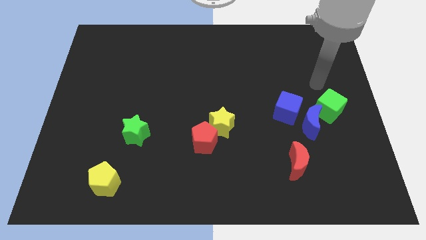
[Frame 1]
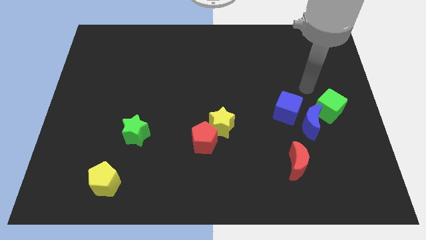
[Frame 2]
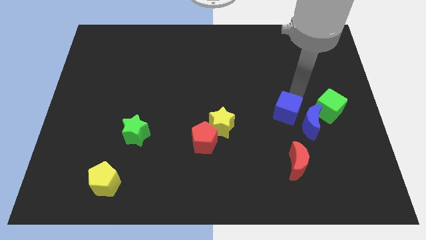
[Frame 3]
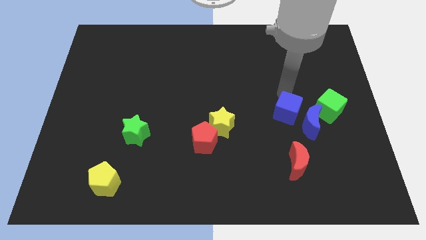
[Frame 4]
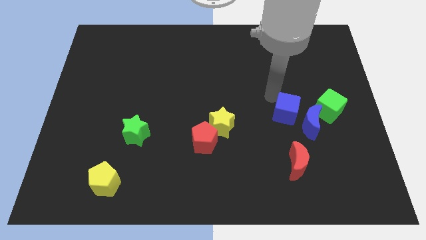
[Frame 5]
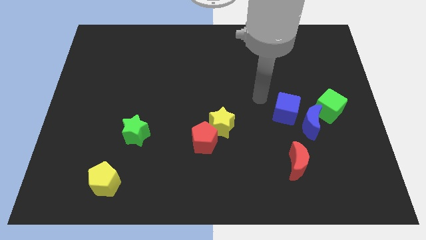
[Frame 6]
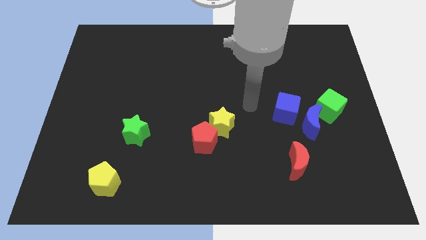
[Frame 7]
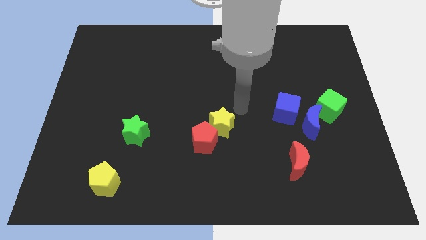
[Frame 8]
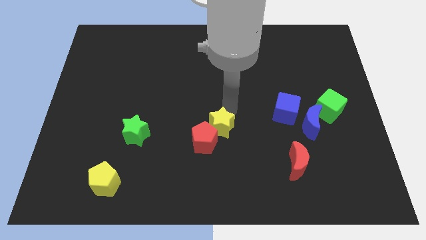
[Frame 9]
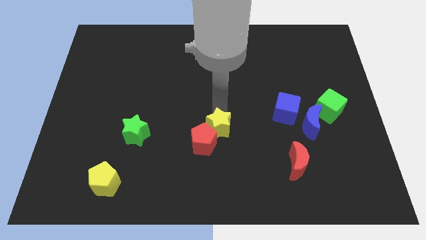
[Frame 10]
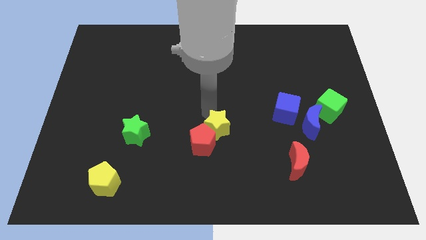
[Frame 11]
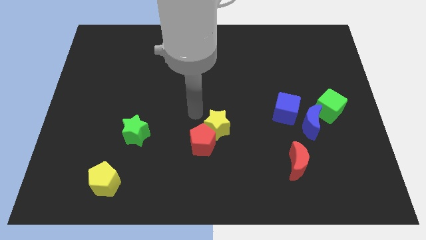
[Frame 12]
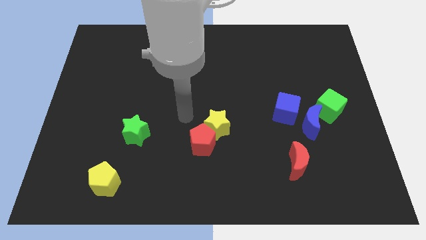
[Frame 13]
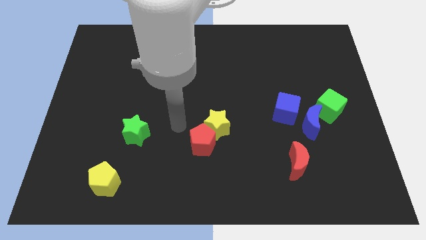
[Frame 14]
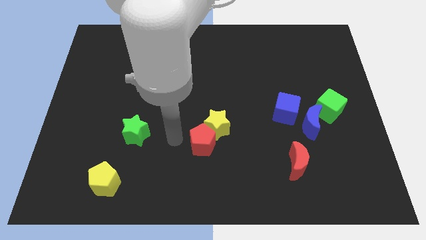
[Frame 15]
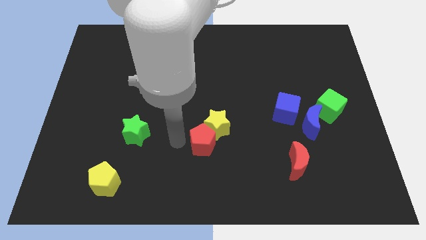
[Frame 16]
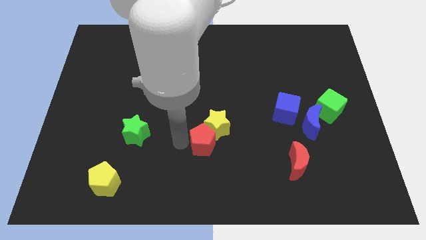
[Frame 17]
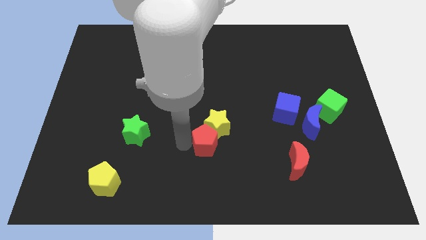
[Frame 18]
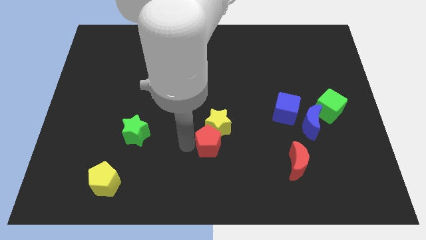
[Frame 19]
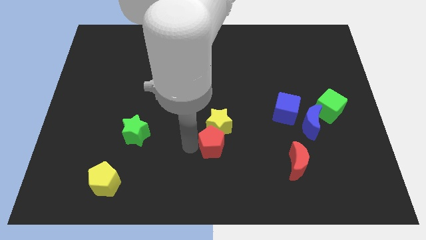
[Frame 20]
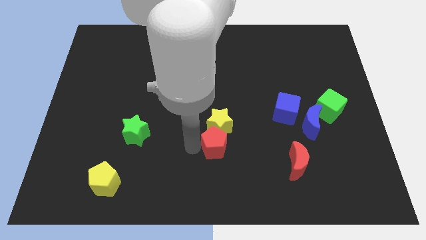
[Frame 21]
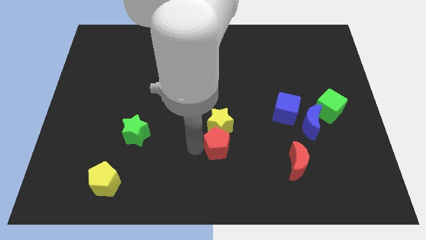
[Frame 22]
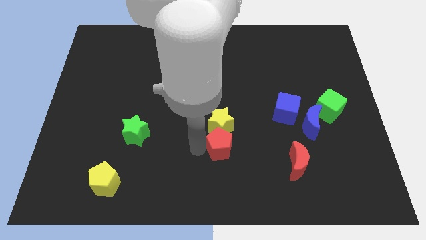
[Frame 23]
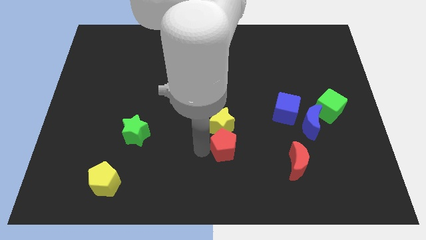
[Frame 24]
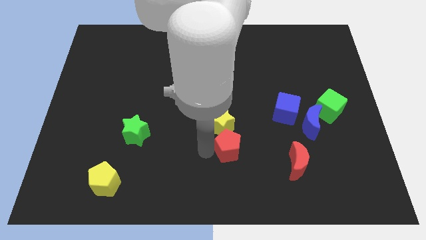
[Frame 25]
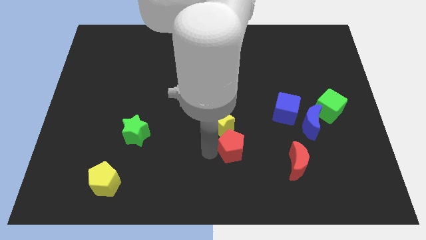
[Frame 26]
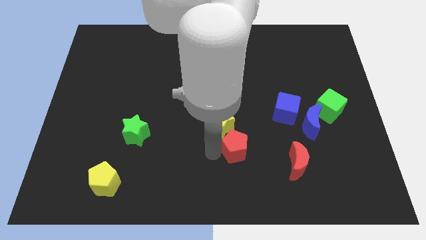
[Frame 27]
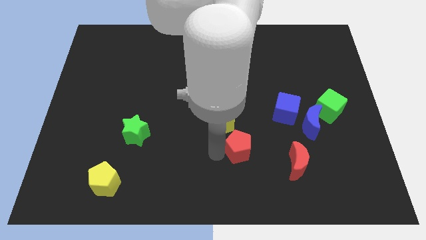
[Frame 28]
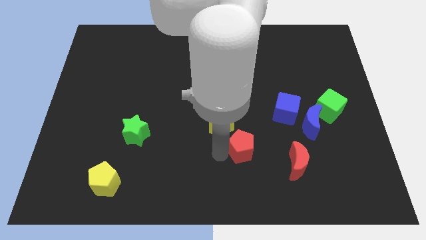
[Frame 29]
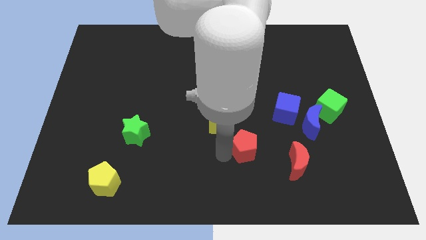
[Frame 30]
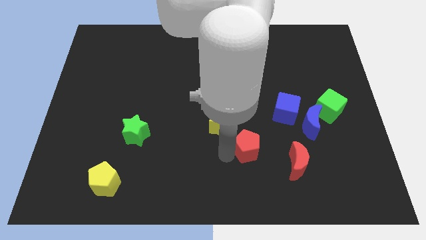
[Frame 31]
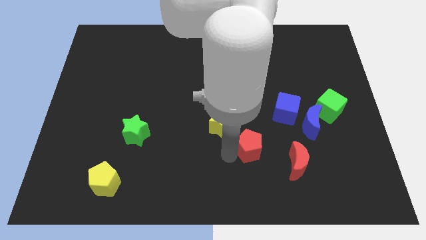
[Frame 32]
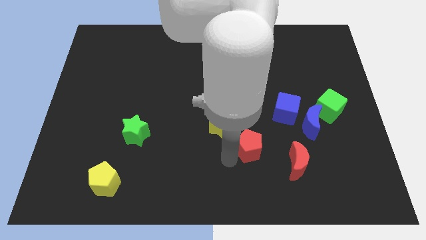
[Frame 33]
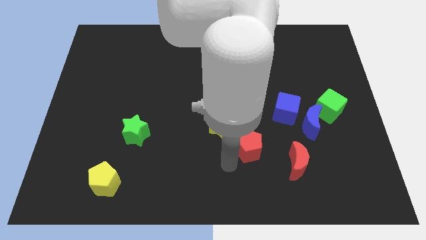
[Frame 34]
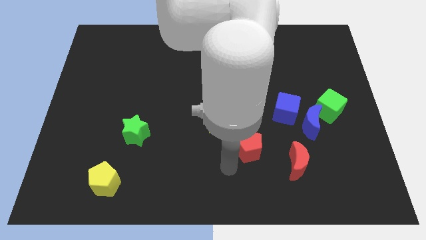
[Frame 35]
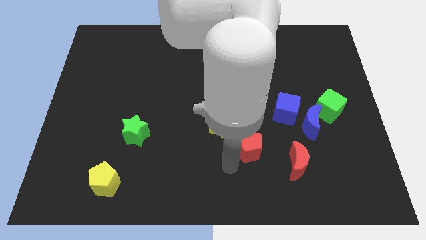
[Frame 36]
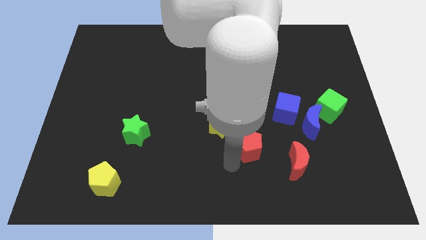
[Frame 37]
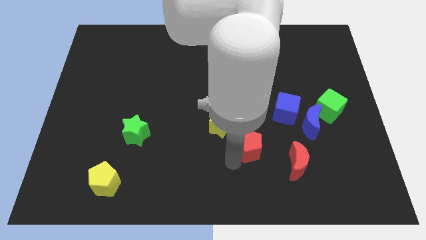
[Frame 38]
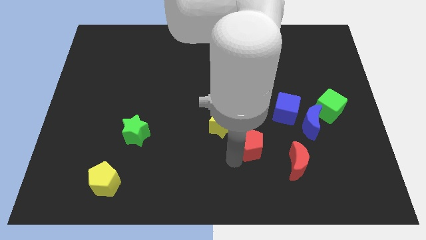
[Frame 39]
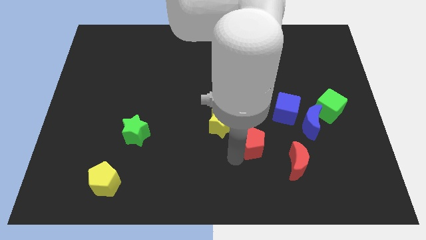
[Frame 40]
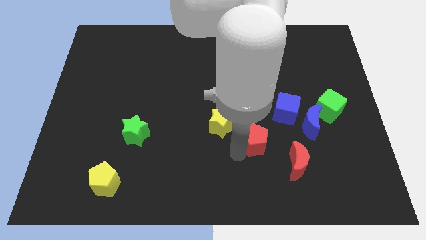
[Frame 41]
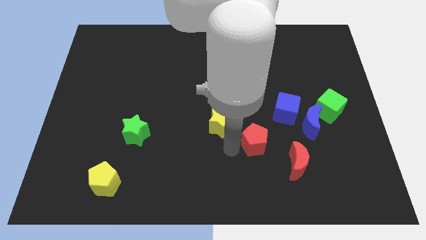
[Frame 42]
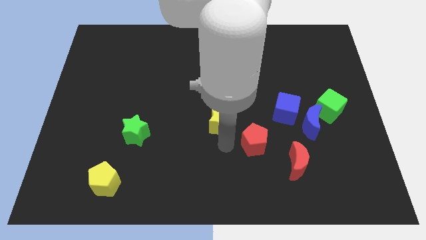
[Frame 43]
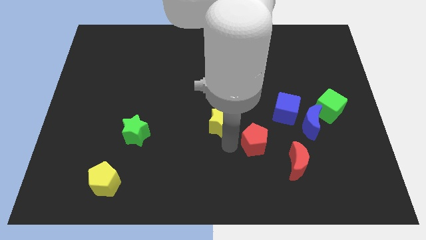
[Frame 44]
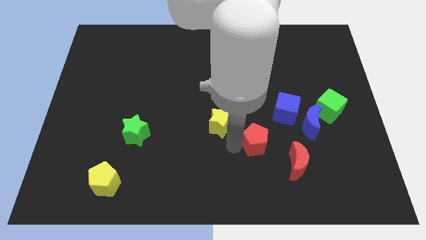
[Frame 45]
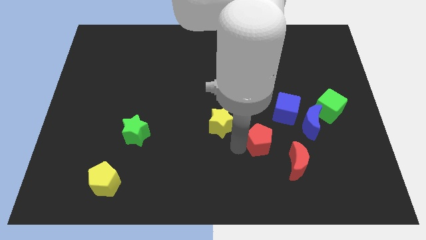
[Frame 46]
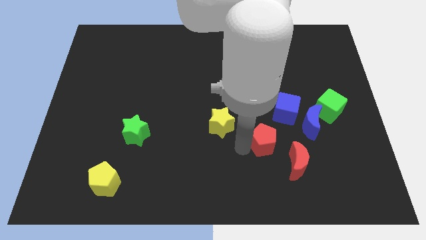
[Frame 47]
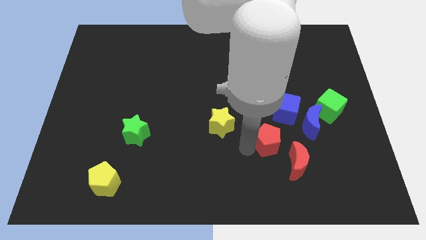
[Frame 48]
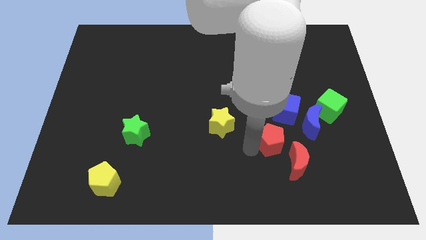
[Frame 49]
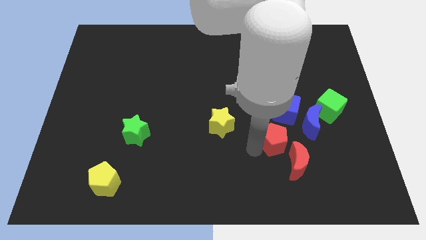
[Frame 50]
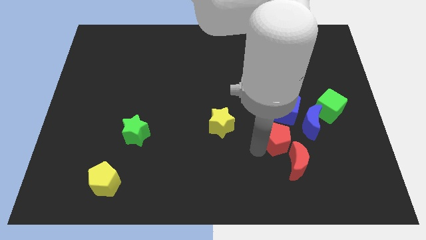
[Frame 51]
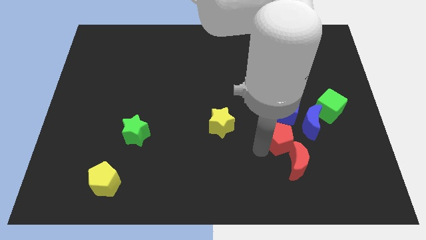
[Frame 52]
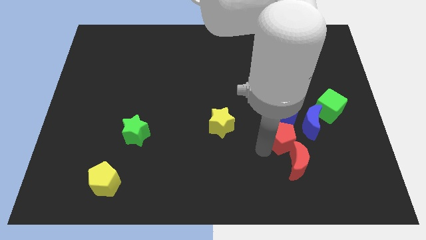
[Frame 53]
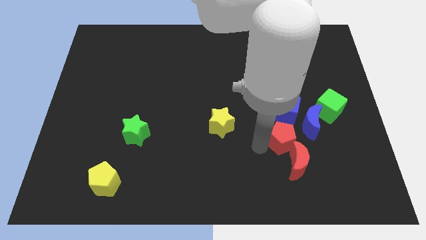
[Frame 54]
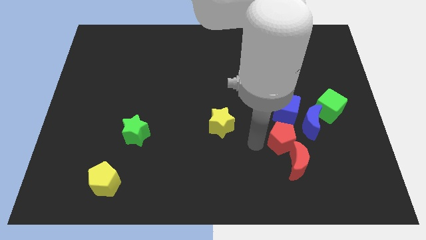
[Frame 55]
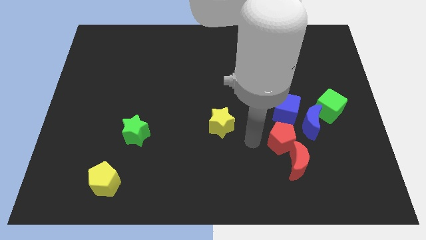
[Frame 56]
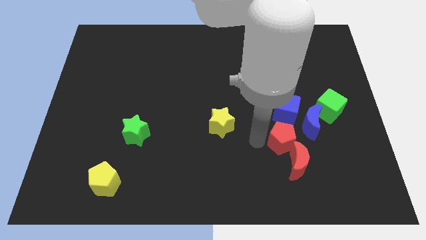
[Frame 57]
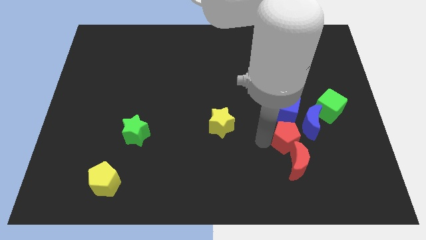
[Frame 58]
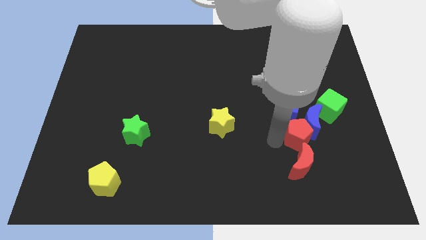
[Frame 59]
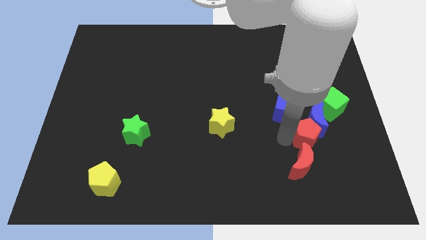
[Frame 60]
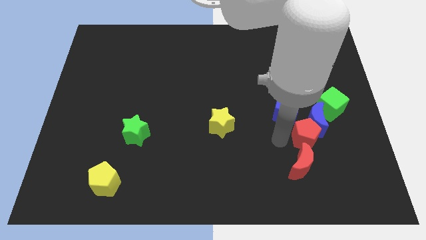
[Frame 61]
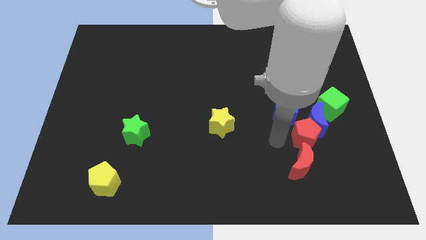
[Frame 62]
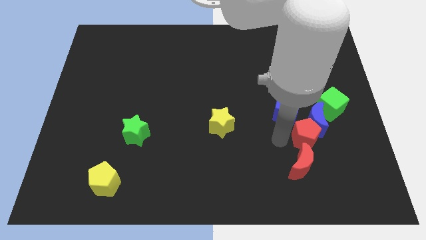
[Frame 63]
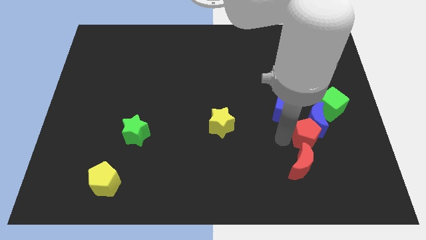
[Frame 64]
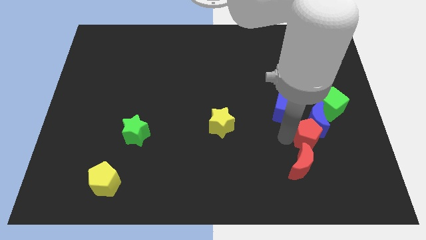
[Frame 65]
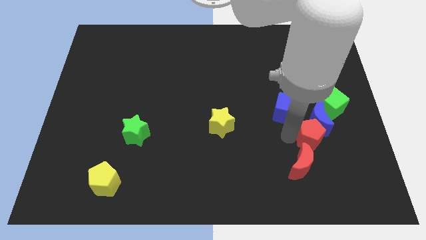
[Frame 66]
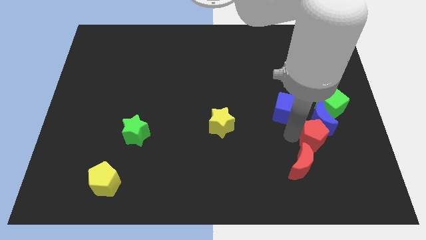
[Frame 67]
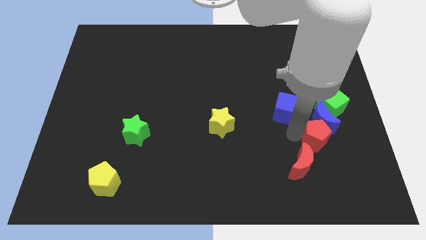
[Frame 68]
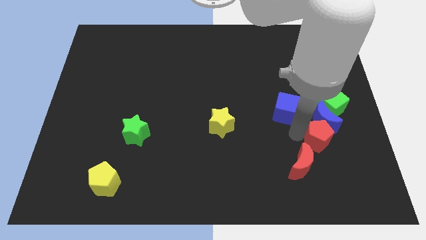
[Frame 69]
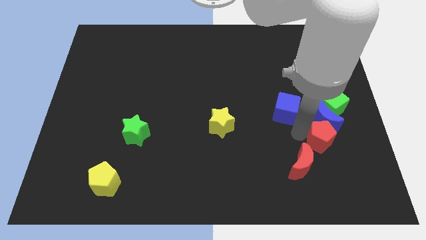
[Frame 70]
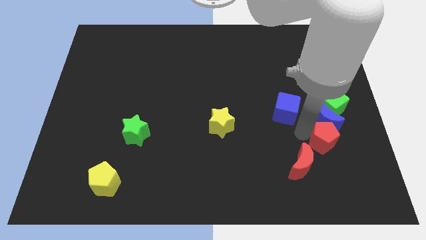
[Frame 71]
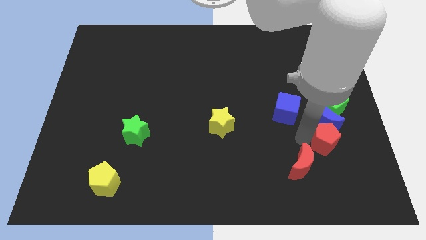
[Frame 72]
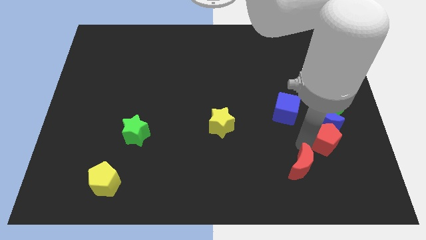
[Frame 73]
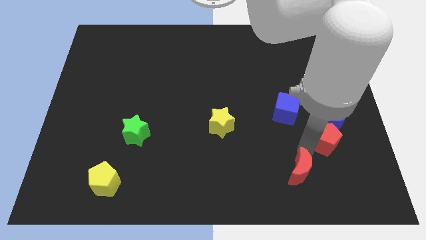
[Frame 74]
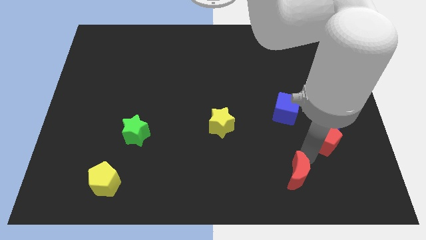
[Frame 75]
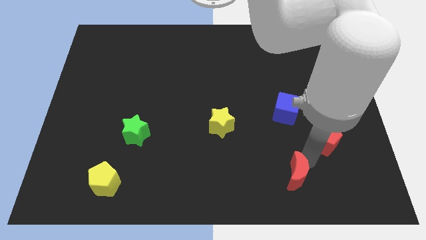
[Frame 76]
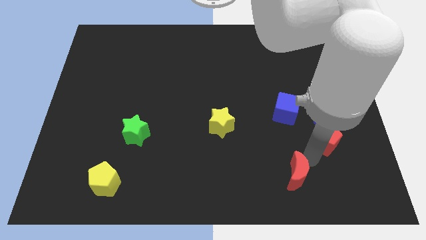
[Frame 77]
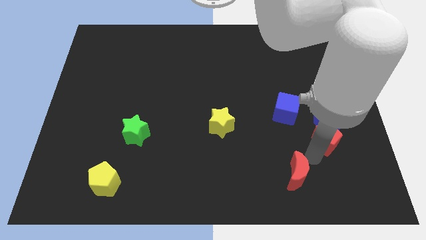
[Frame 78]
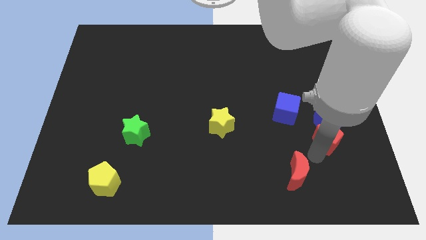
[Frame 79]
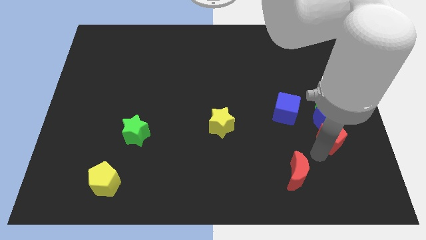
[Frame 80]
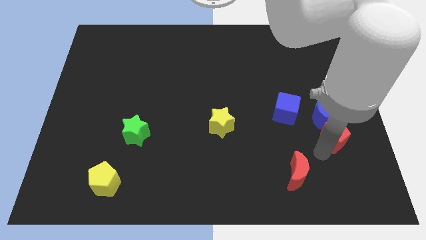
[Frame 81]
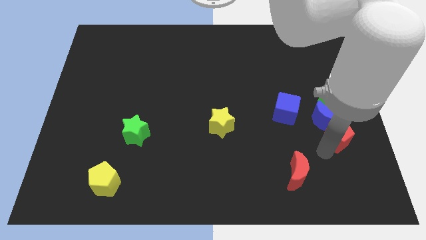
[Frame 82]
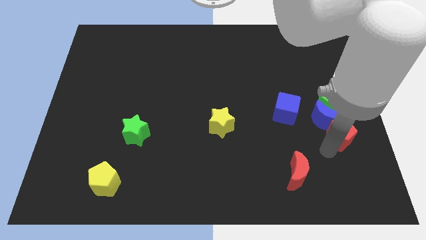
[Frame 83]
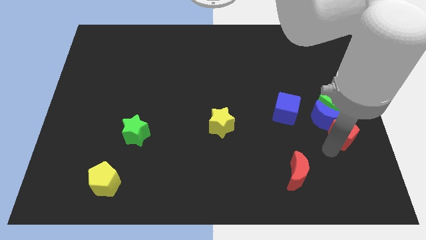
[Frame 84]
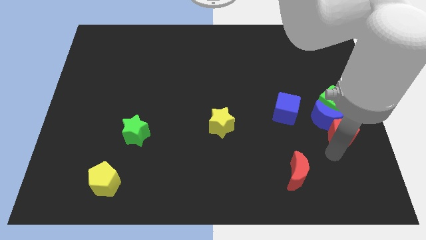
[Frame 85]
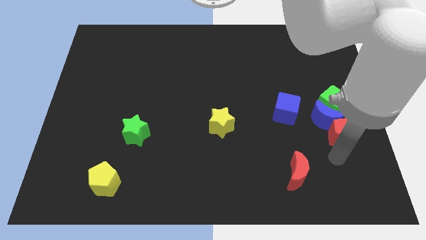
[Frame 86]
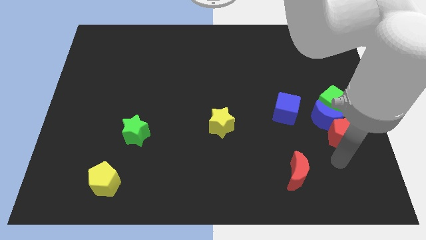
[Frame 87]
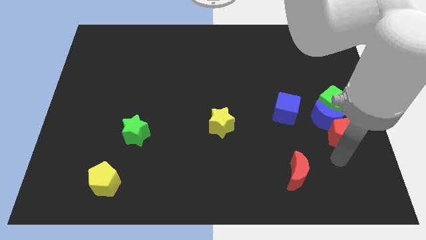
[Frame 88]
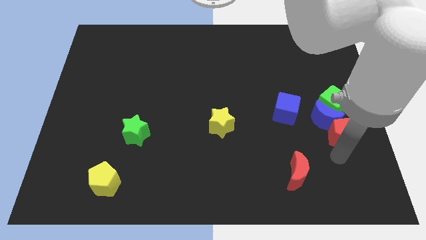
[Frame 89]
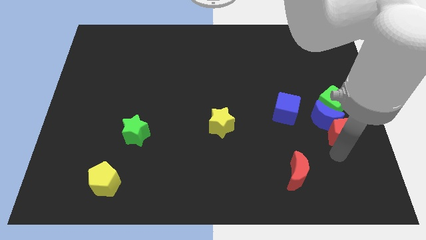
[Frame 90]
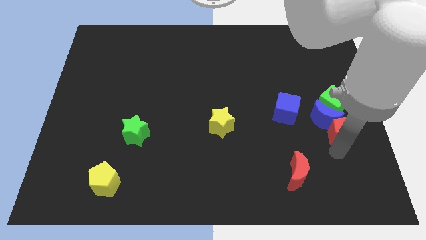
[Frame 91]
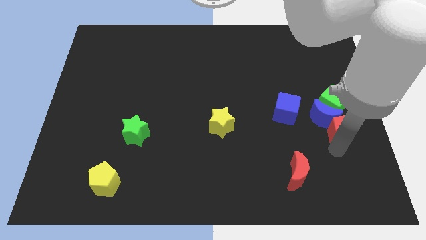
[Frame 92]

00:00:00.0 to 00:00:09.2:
push the red pentagon to the right side
